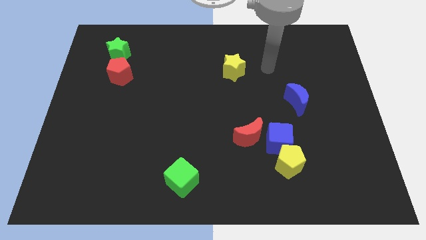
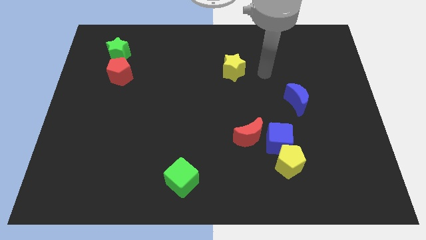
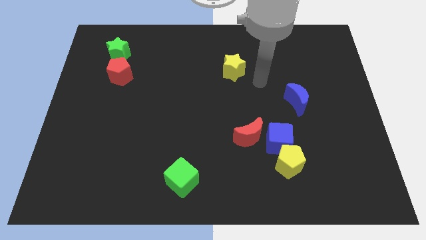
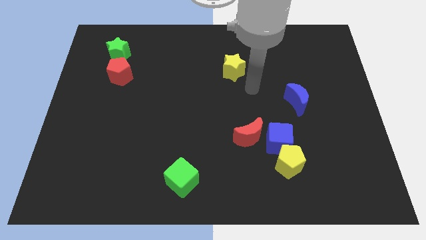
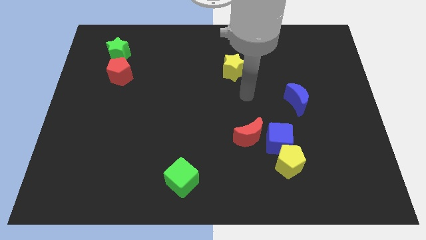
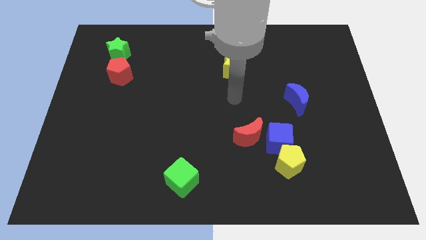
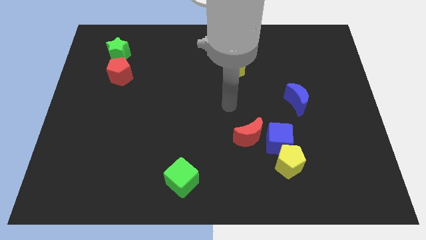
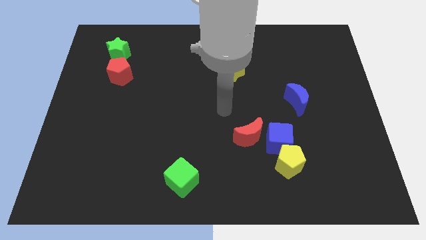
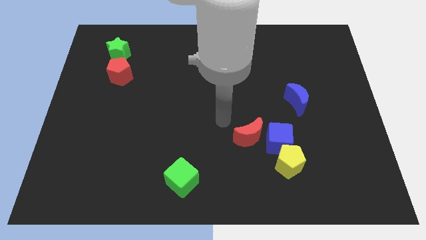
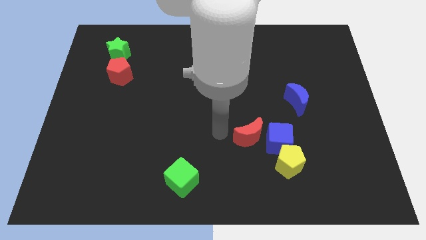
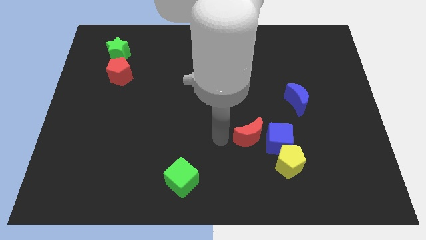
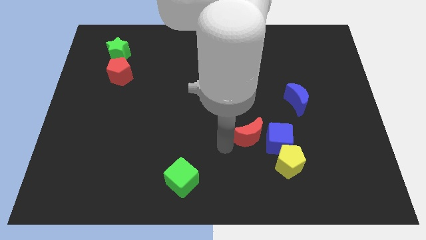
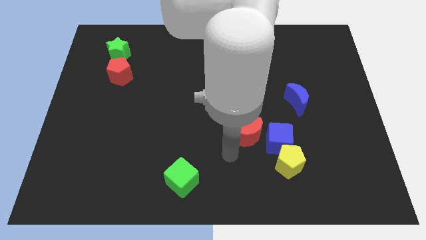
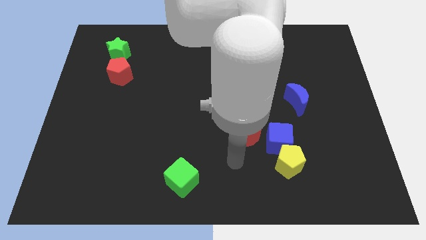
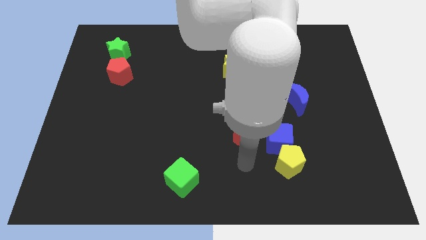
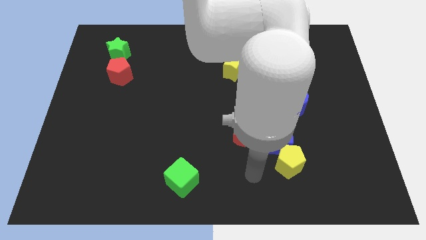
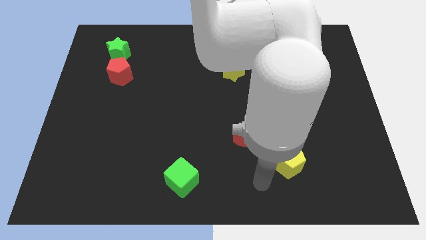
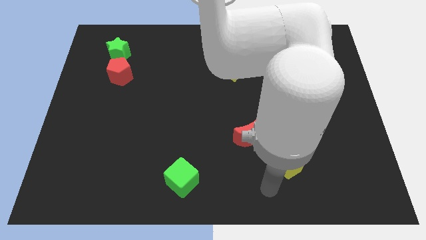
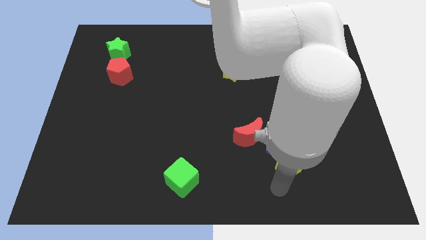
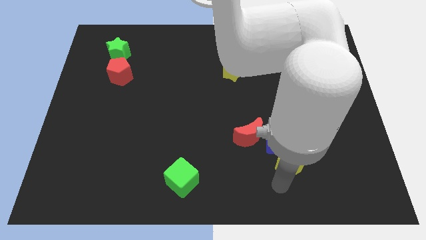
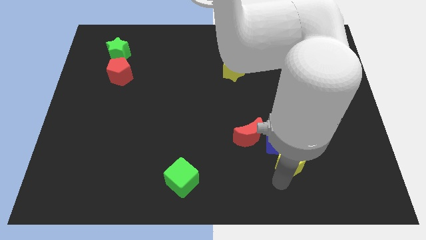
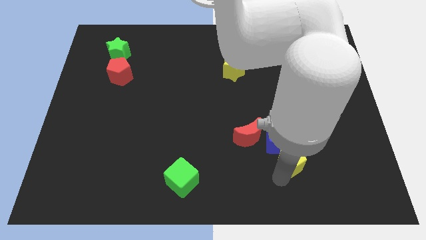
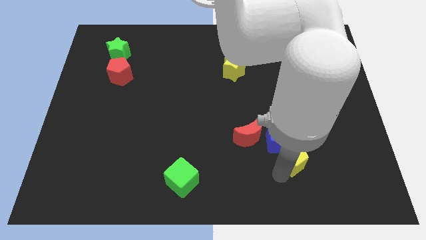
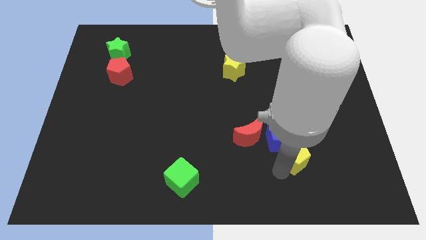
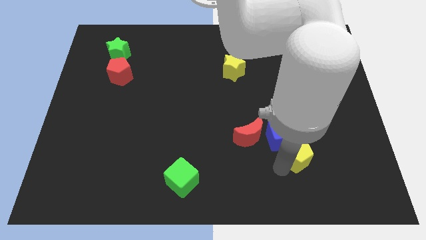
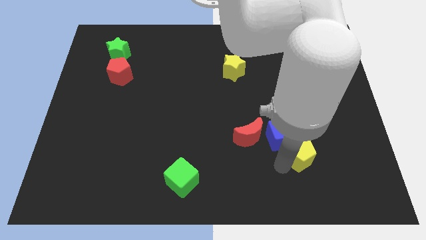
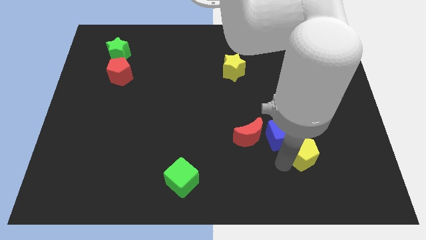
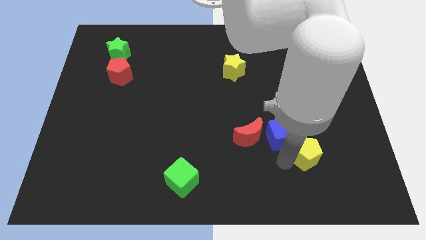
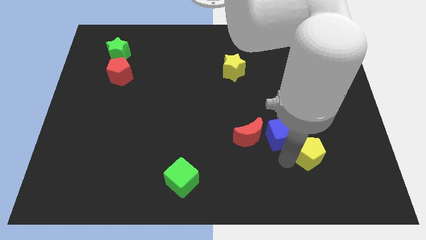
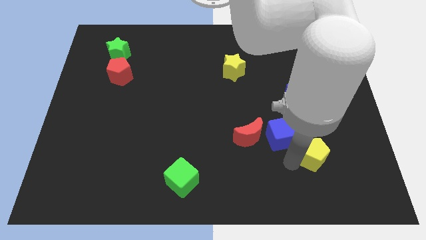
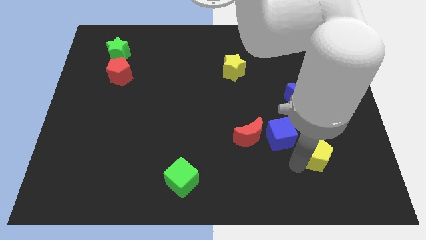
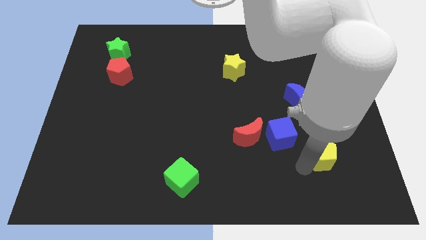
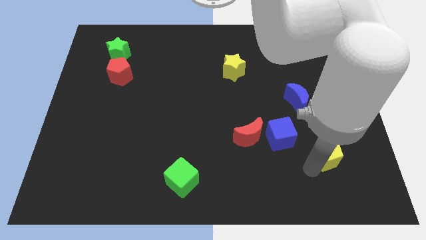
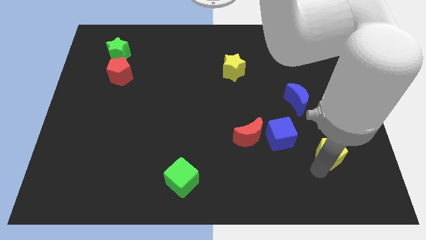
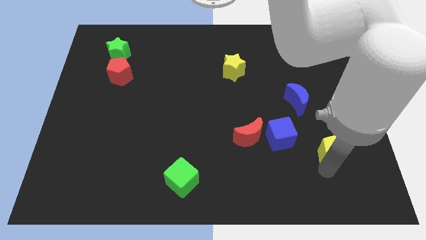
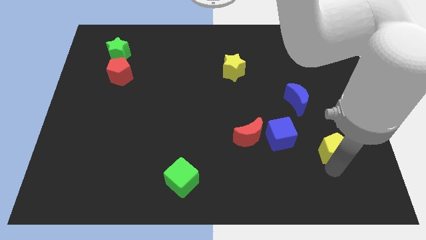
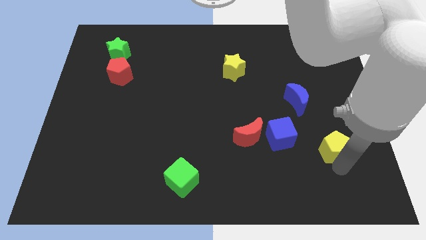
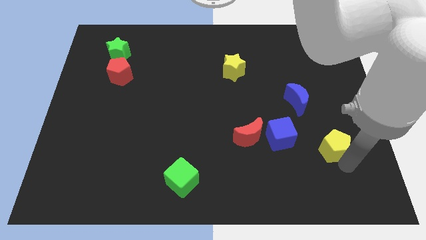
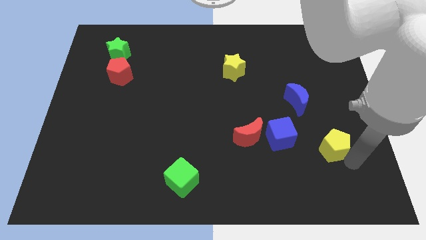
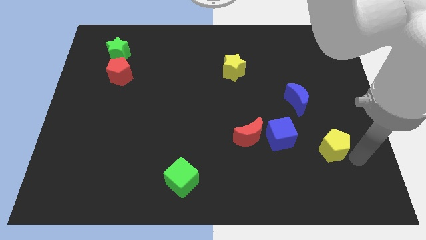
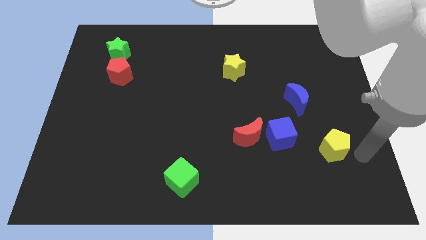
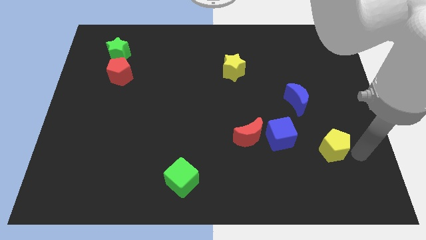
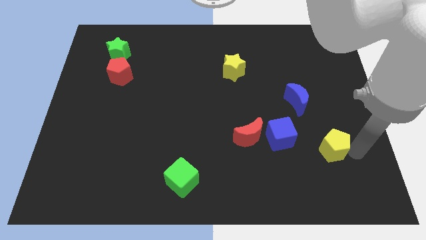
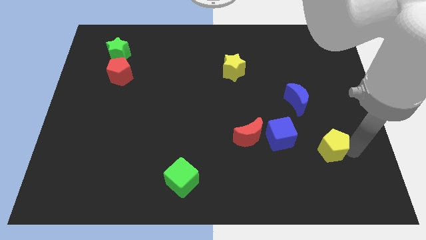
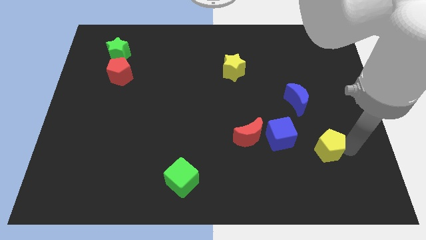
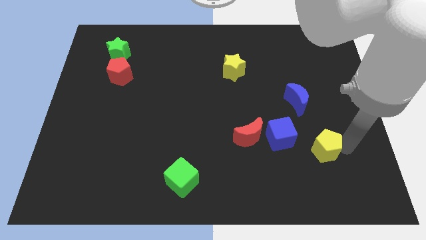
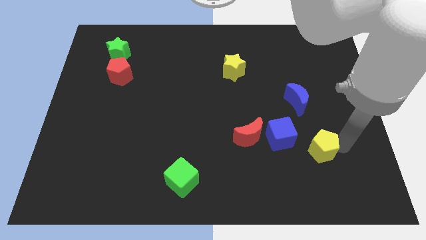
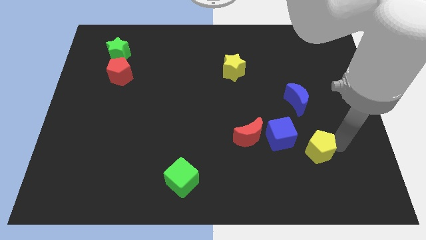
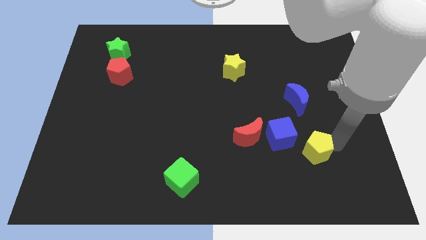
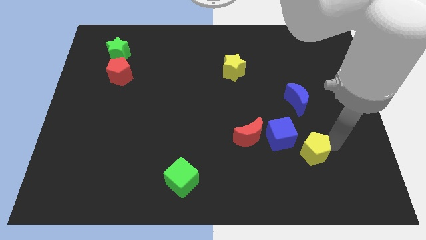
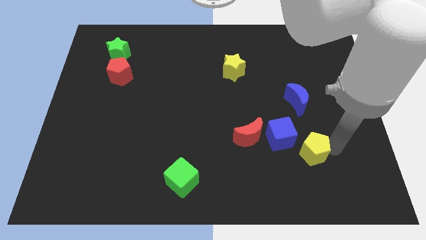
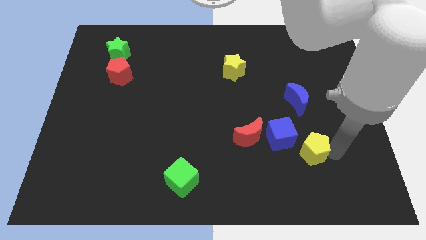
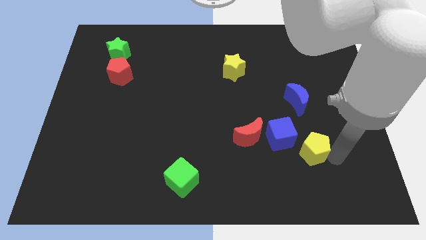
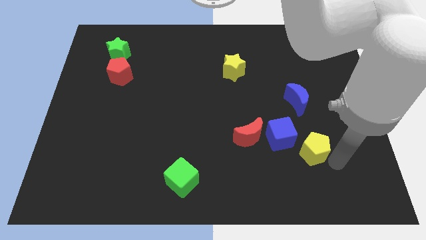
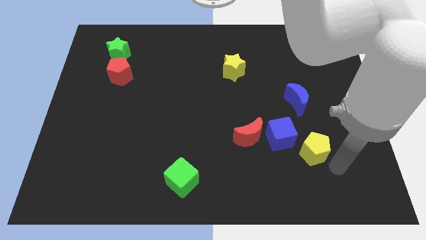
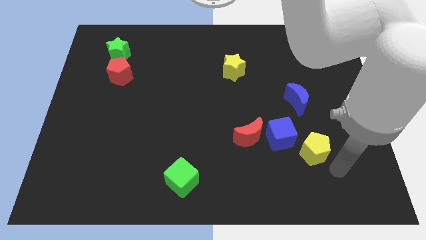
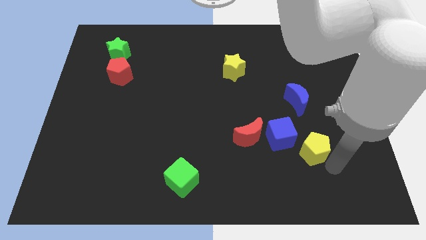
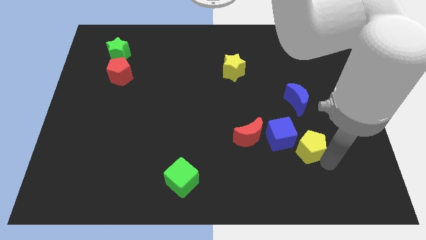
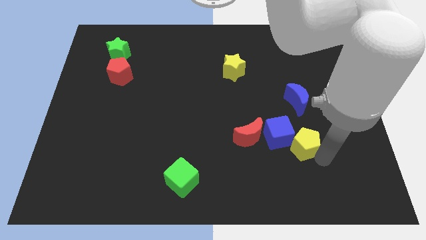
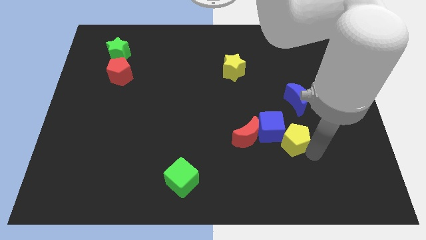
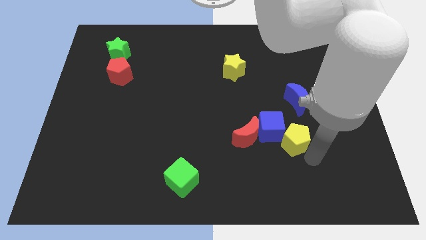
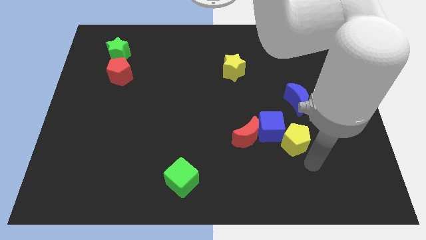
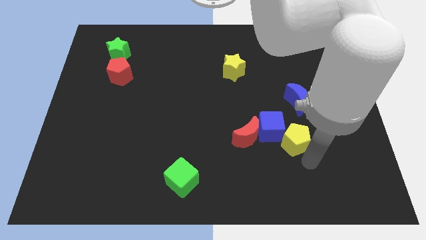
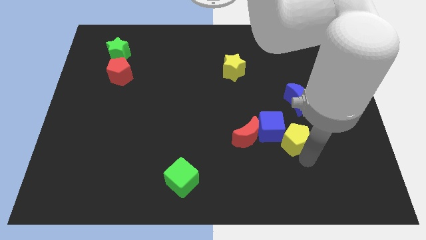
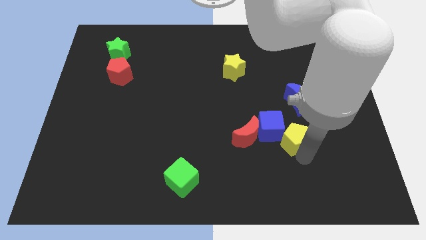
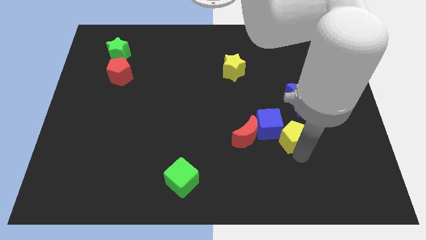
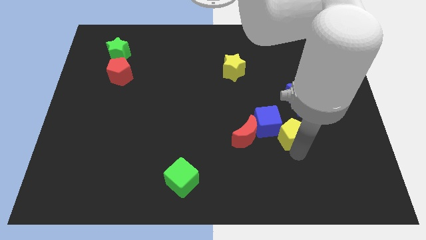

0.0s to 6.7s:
slightly move the yellow pentagon up

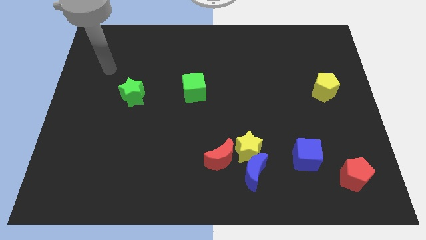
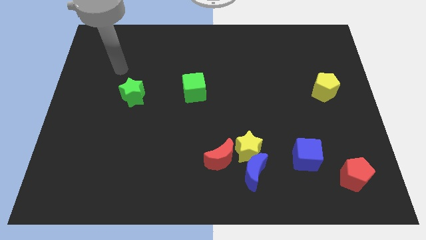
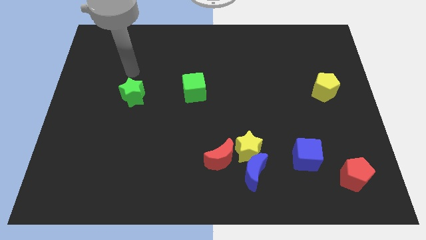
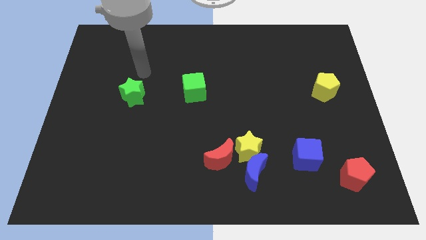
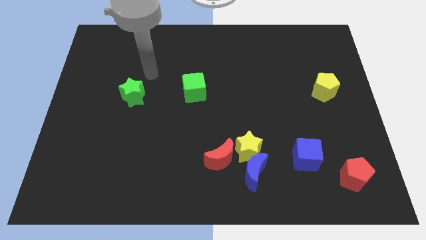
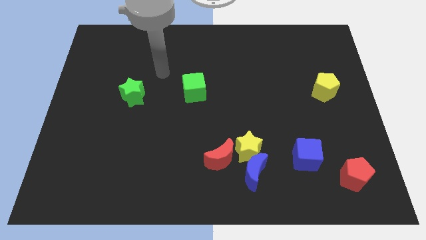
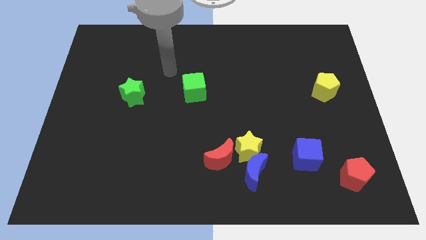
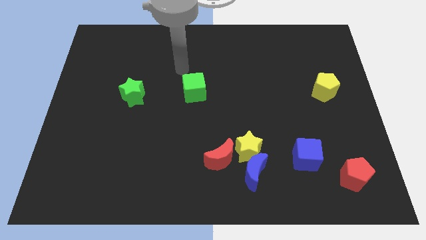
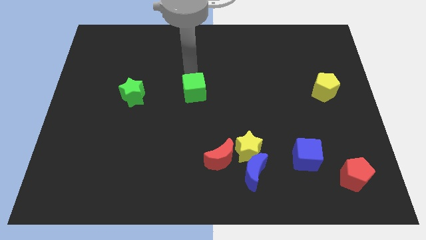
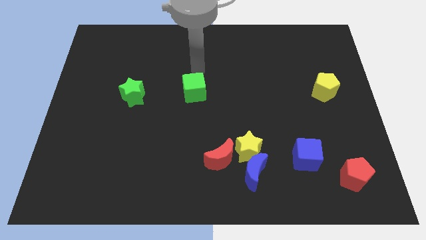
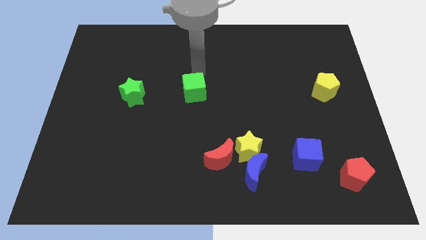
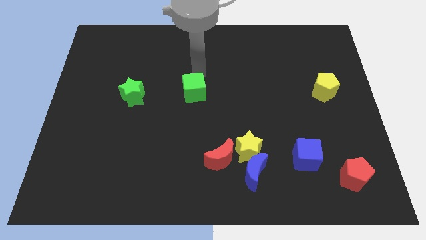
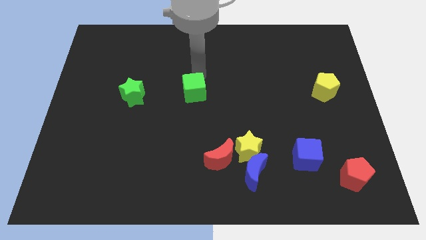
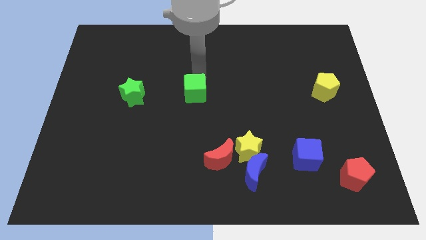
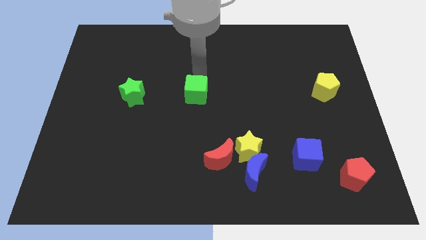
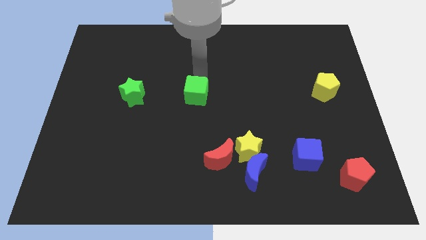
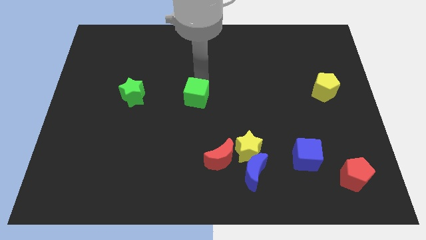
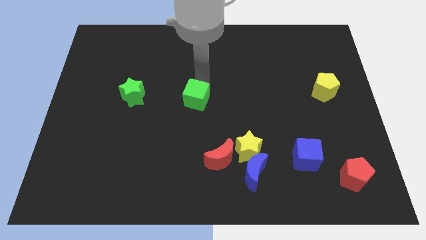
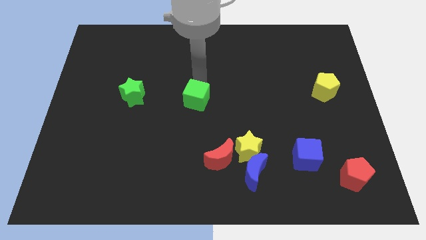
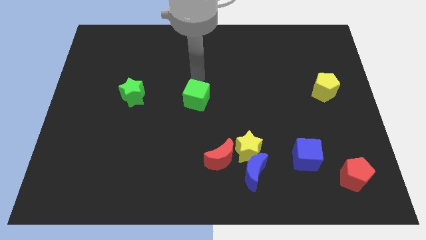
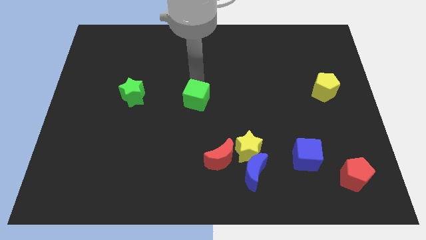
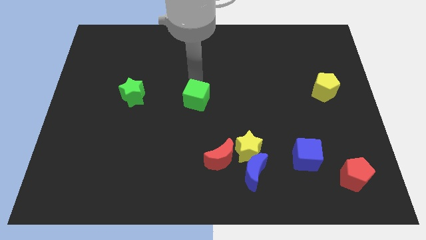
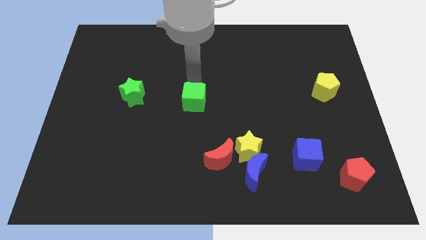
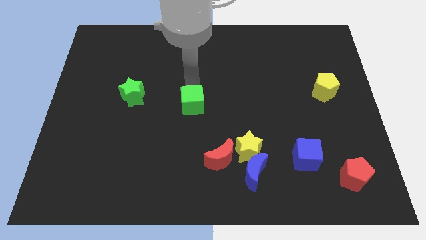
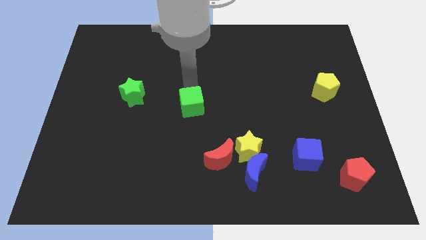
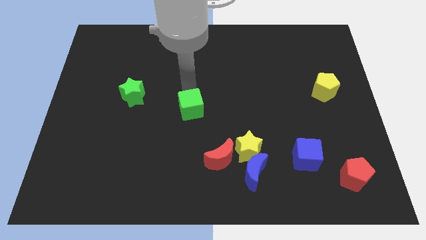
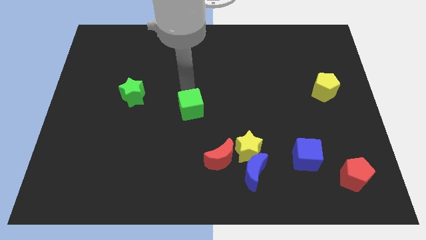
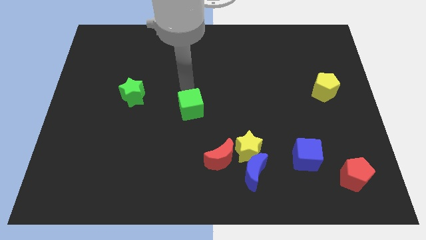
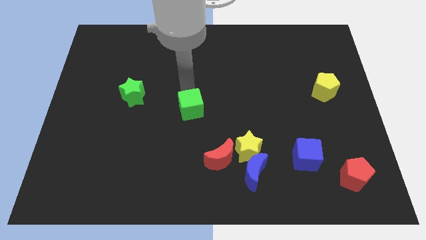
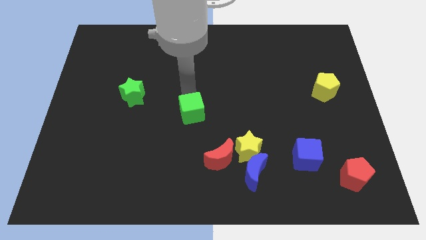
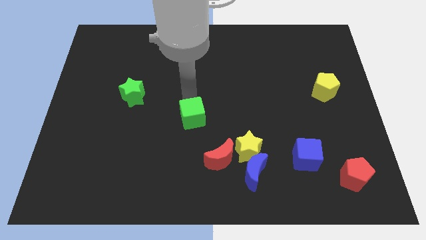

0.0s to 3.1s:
move the green cube downwards somewhat
